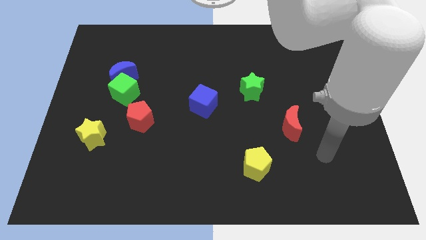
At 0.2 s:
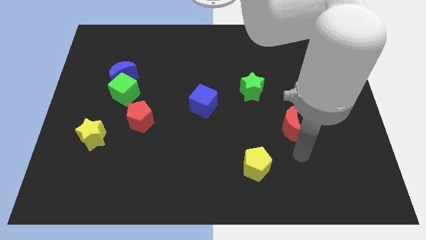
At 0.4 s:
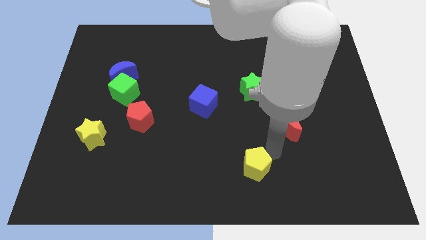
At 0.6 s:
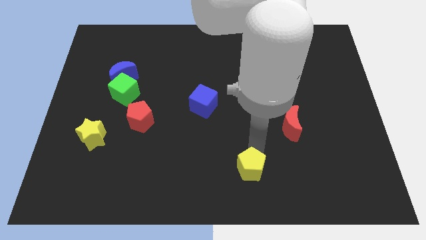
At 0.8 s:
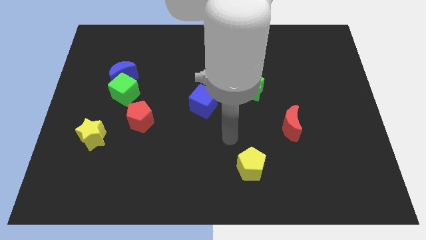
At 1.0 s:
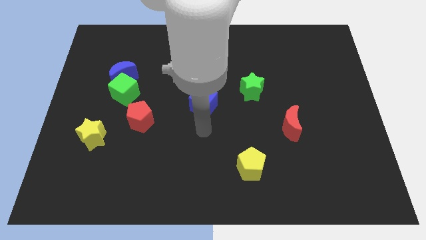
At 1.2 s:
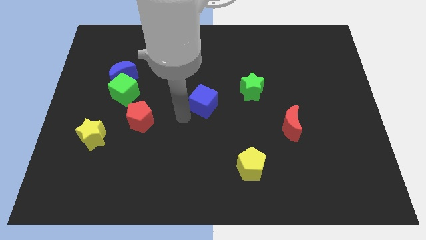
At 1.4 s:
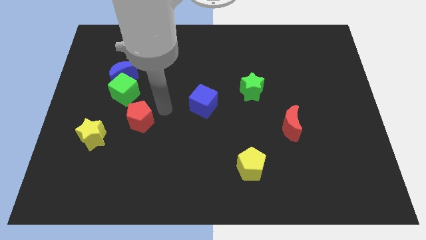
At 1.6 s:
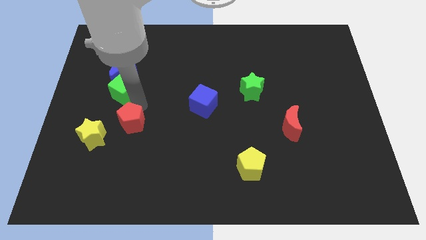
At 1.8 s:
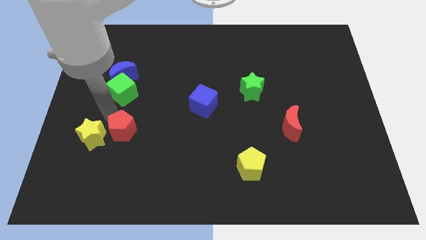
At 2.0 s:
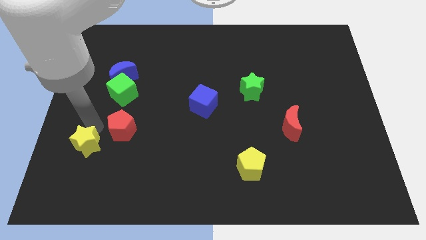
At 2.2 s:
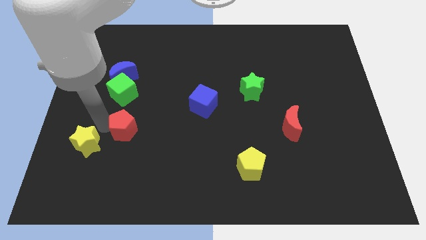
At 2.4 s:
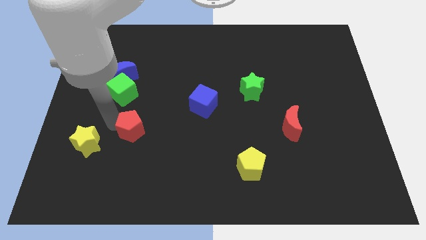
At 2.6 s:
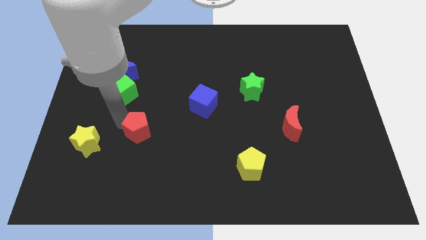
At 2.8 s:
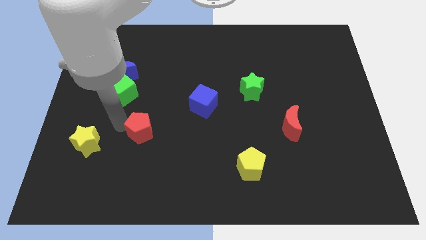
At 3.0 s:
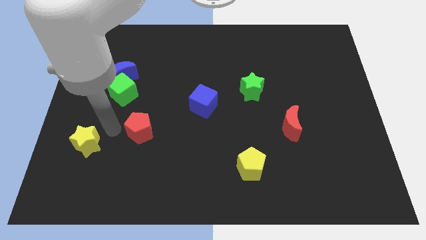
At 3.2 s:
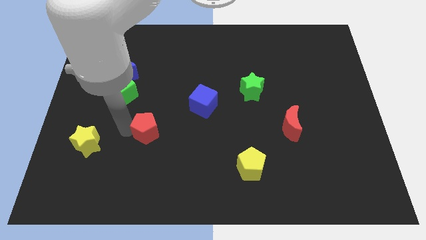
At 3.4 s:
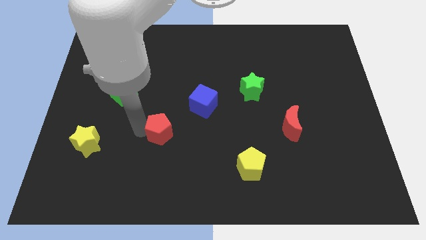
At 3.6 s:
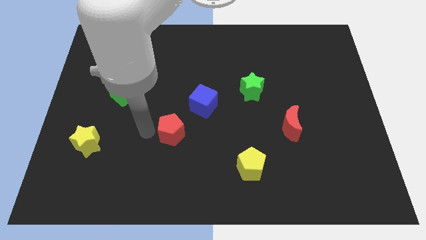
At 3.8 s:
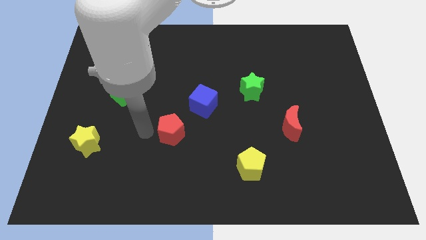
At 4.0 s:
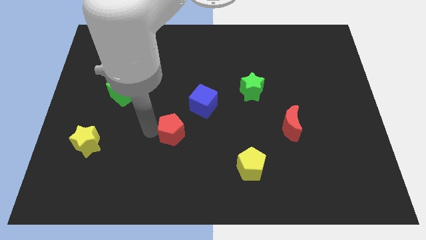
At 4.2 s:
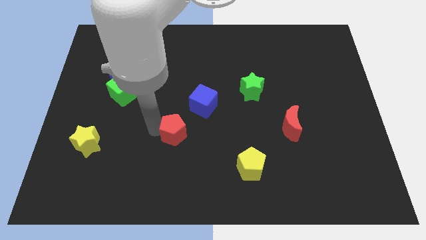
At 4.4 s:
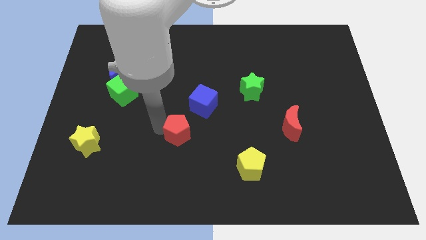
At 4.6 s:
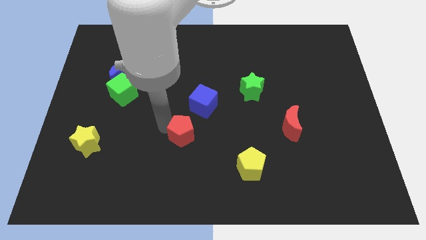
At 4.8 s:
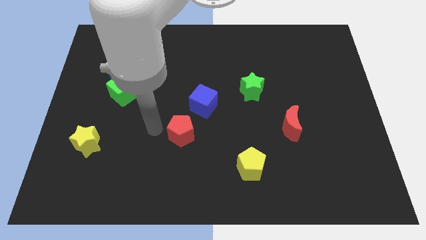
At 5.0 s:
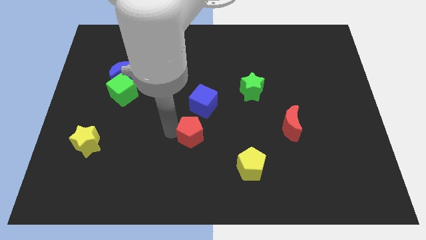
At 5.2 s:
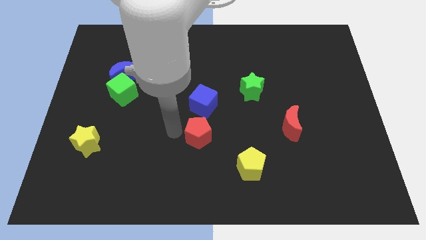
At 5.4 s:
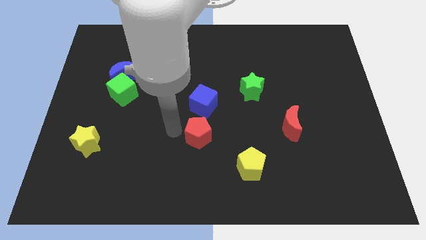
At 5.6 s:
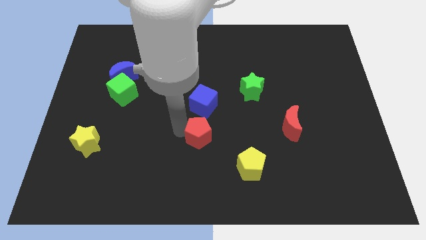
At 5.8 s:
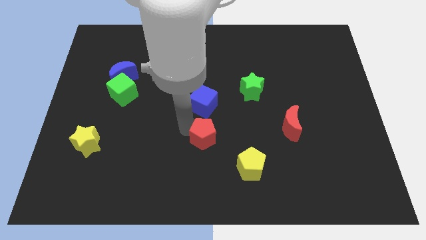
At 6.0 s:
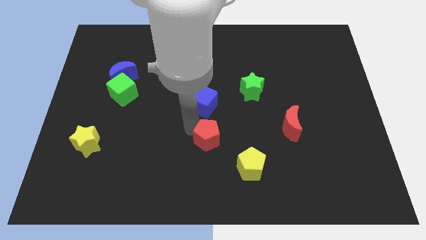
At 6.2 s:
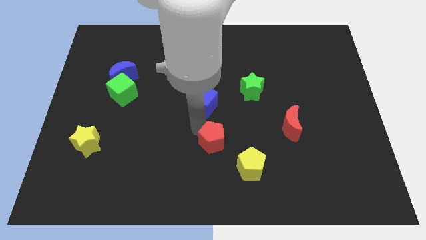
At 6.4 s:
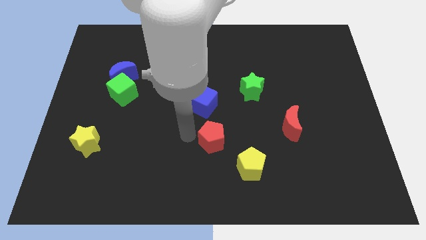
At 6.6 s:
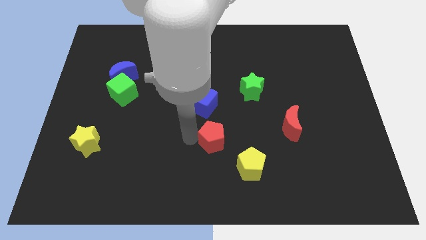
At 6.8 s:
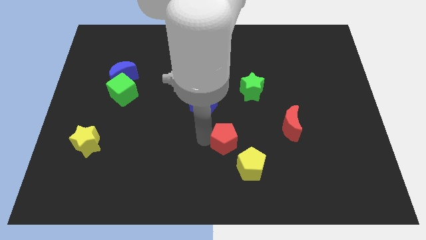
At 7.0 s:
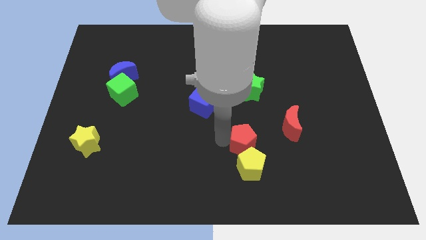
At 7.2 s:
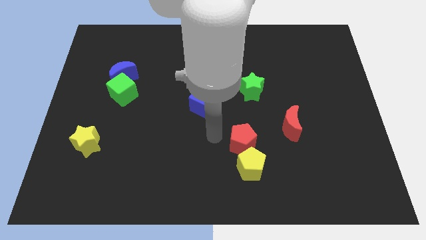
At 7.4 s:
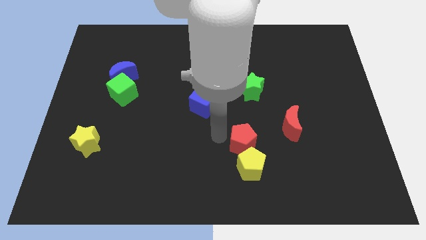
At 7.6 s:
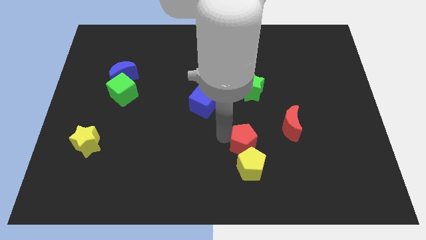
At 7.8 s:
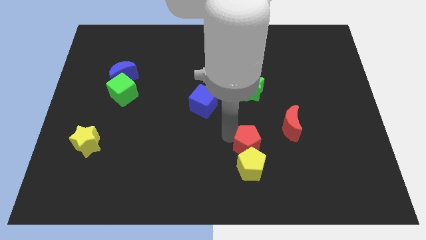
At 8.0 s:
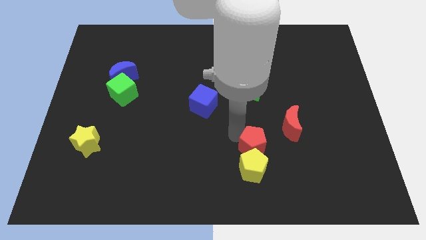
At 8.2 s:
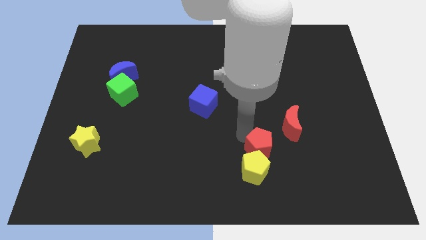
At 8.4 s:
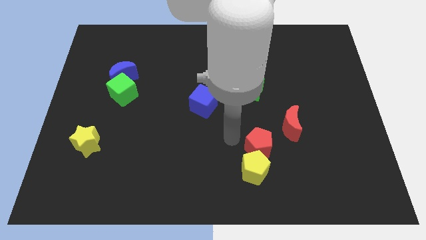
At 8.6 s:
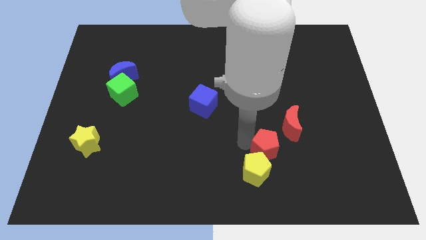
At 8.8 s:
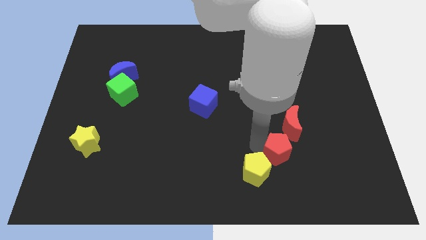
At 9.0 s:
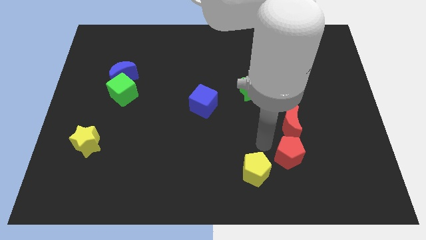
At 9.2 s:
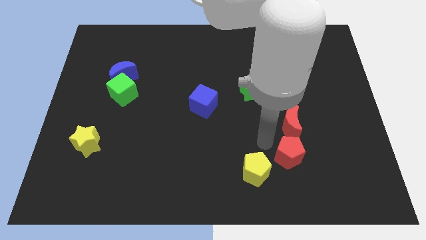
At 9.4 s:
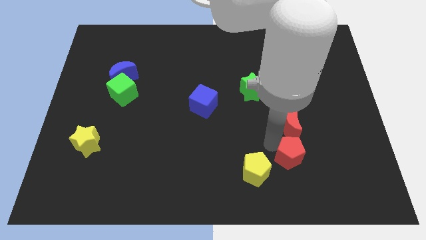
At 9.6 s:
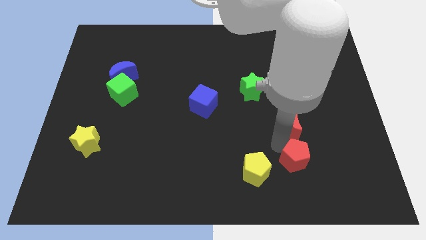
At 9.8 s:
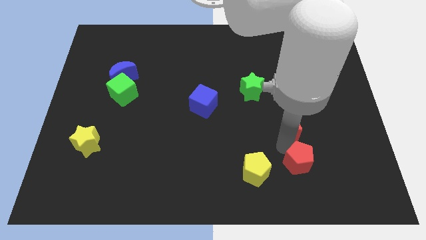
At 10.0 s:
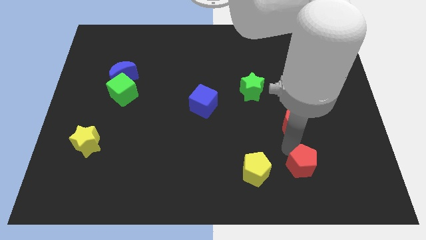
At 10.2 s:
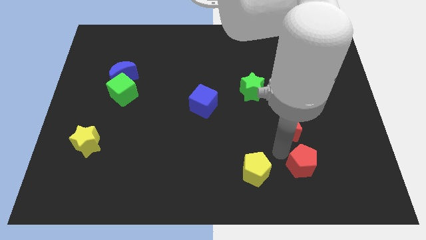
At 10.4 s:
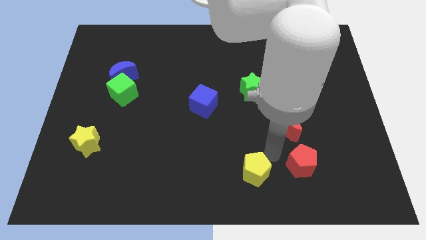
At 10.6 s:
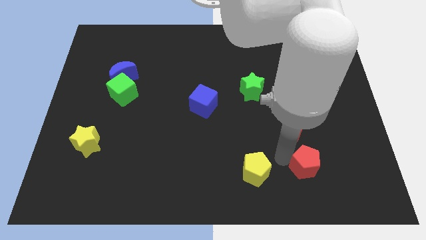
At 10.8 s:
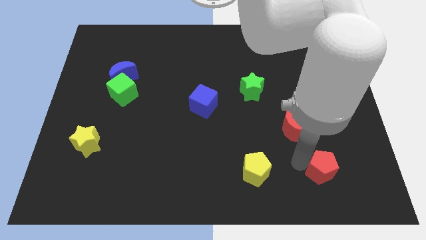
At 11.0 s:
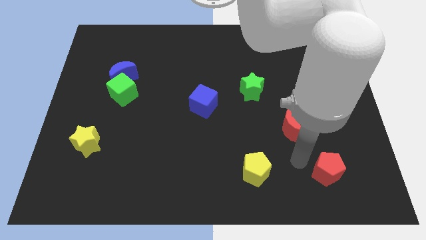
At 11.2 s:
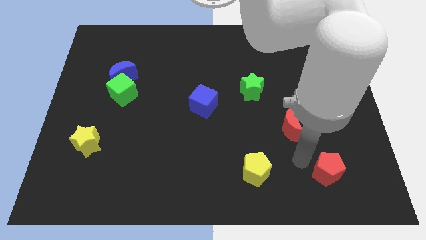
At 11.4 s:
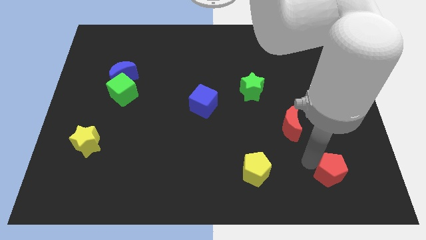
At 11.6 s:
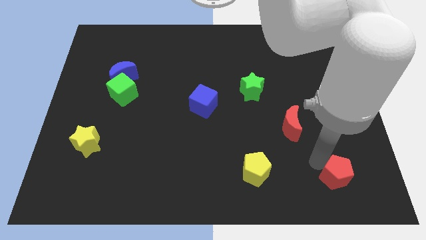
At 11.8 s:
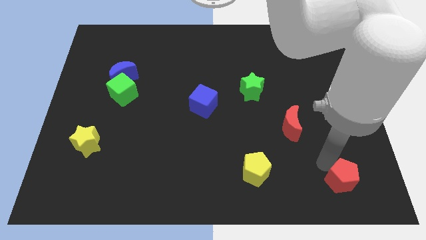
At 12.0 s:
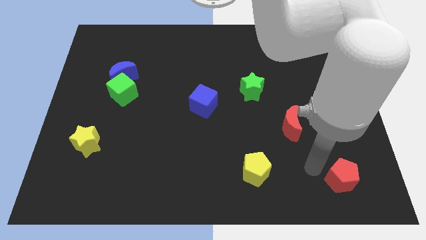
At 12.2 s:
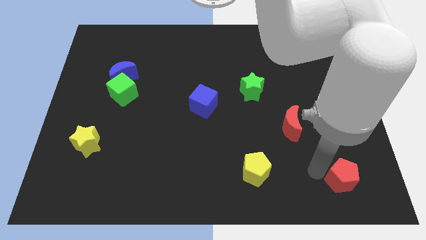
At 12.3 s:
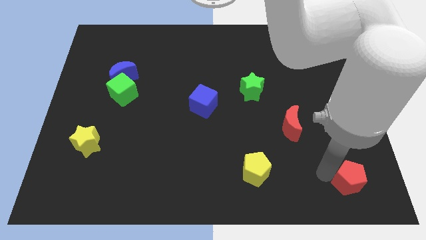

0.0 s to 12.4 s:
move the red pentagon to the bottom right corner
